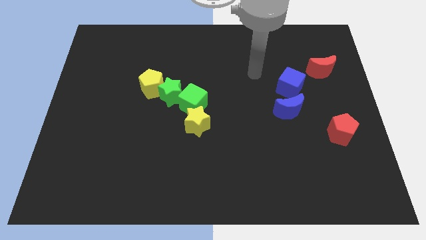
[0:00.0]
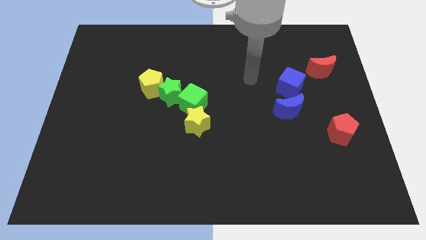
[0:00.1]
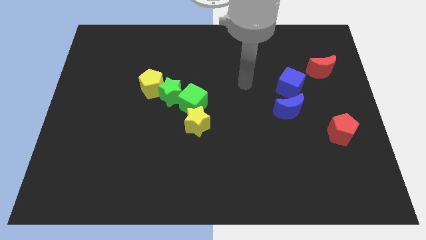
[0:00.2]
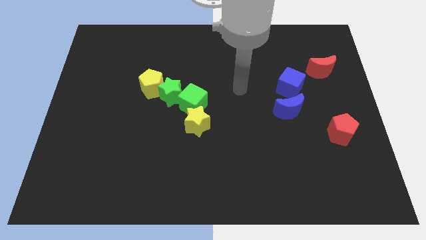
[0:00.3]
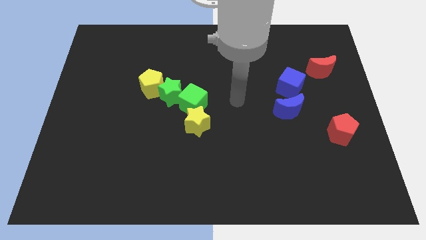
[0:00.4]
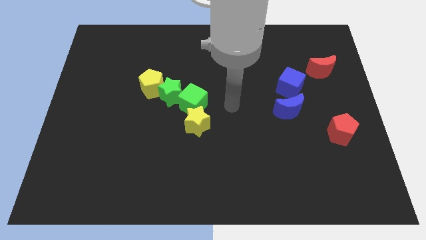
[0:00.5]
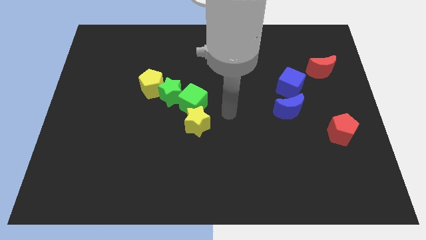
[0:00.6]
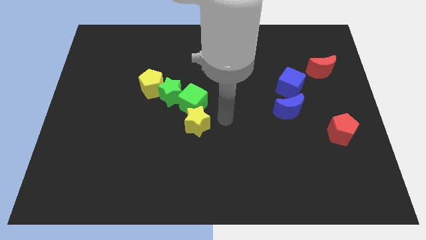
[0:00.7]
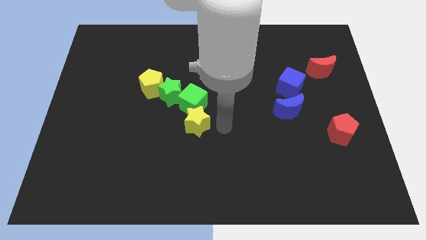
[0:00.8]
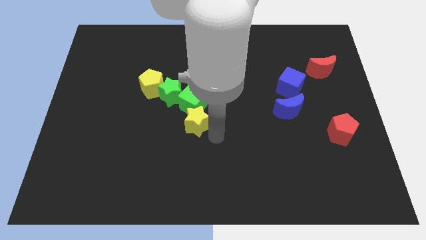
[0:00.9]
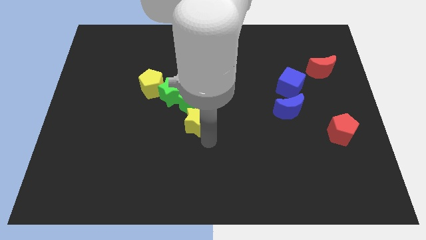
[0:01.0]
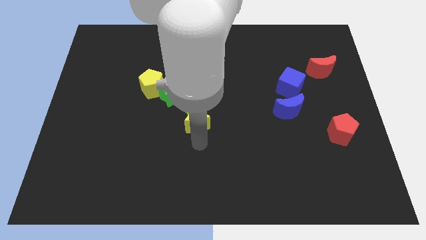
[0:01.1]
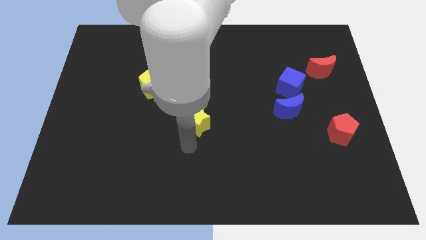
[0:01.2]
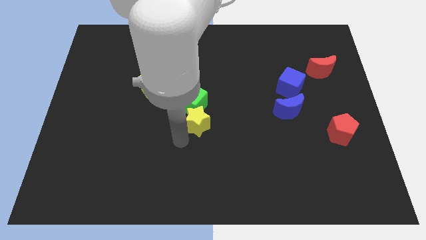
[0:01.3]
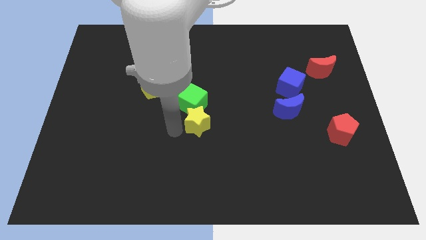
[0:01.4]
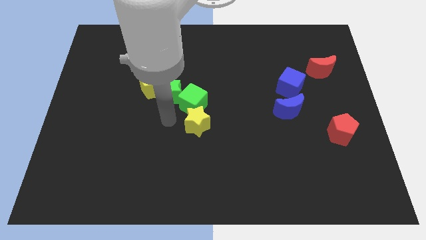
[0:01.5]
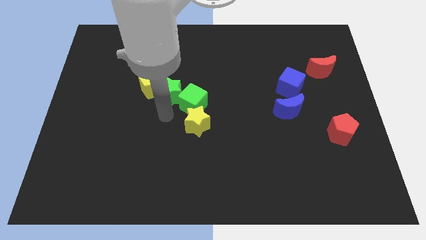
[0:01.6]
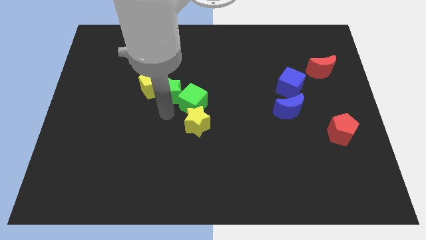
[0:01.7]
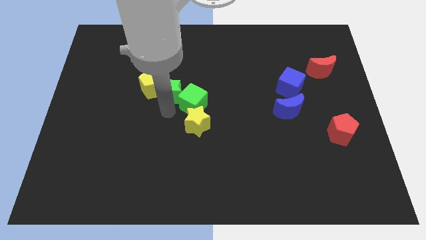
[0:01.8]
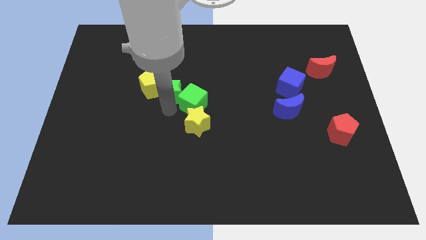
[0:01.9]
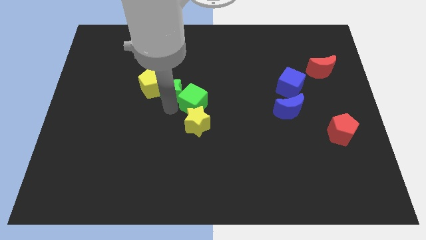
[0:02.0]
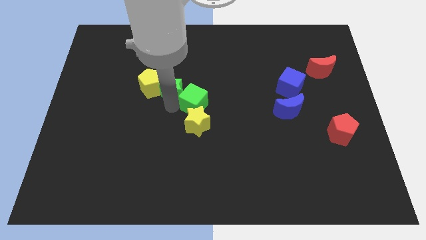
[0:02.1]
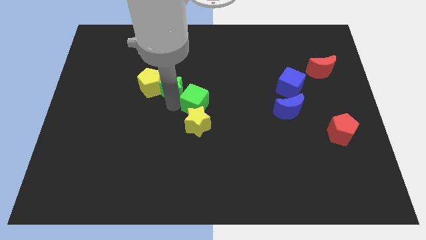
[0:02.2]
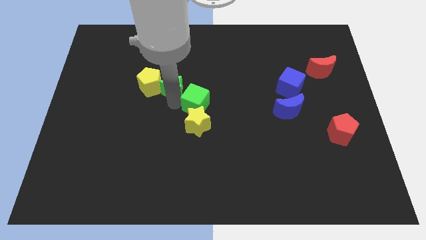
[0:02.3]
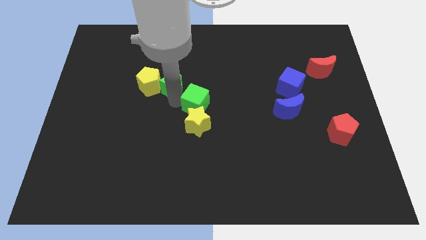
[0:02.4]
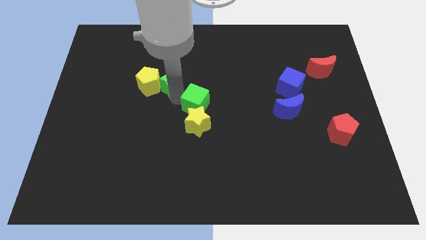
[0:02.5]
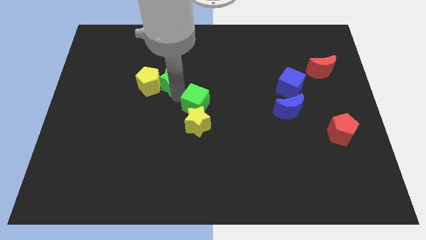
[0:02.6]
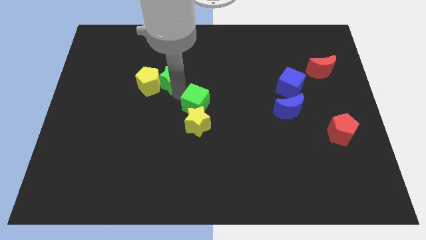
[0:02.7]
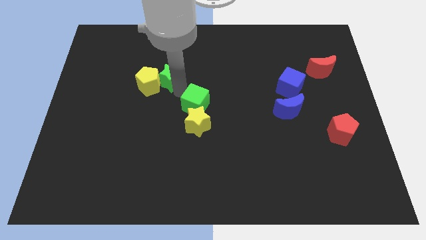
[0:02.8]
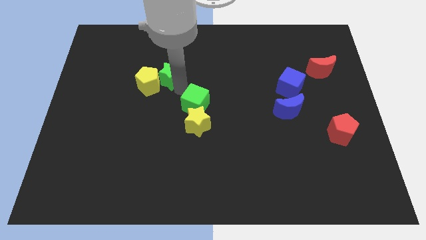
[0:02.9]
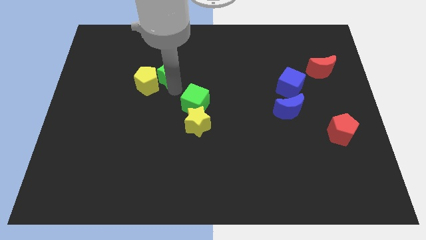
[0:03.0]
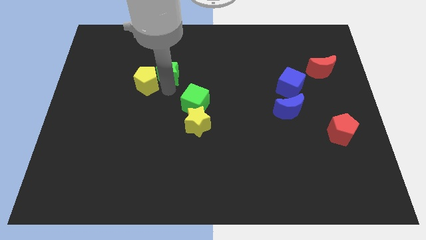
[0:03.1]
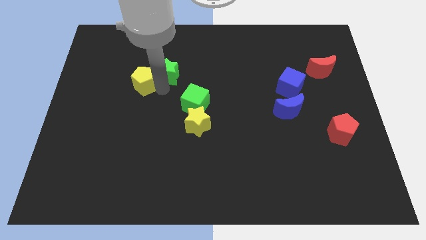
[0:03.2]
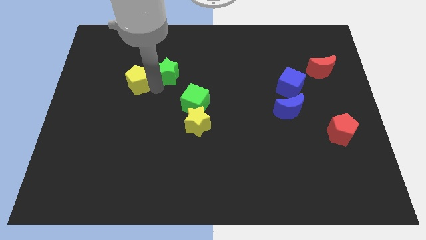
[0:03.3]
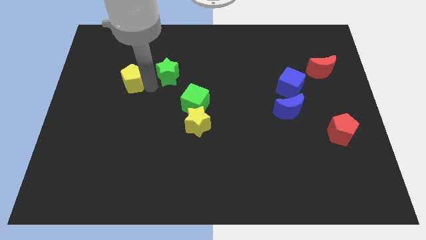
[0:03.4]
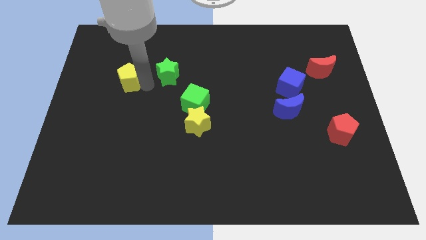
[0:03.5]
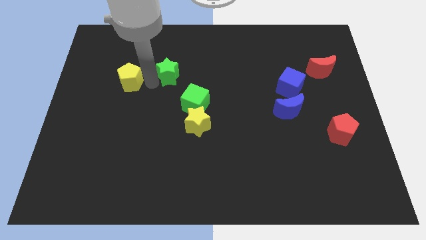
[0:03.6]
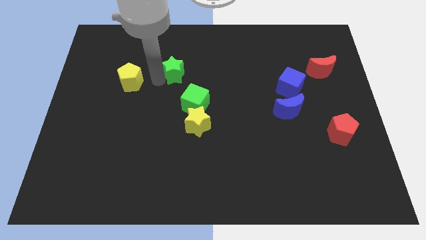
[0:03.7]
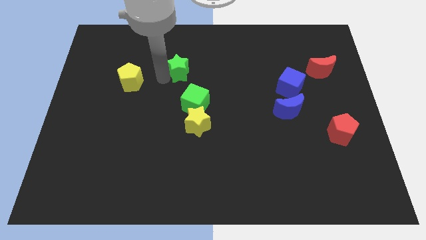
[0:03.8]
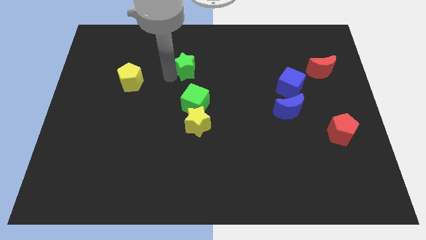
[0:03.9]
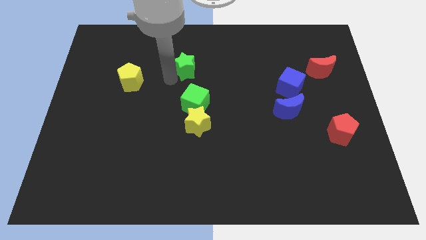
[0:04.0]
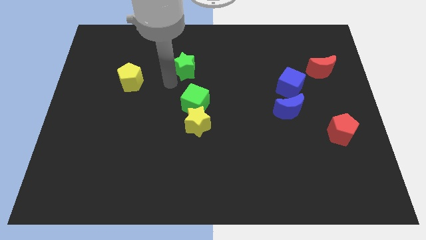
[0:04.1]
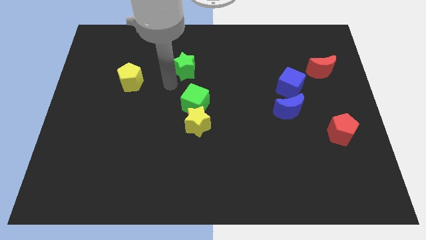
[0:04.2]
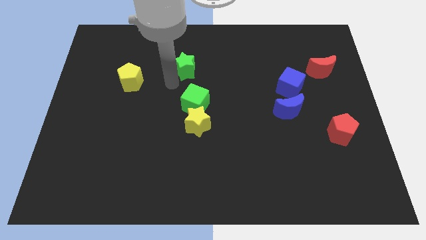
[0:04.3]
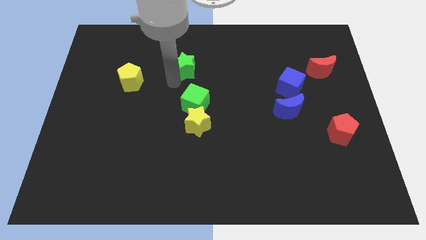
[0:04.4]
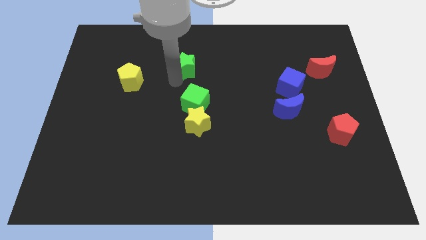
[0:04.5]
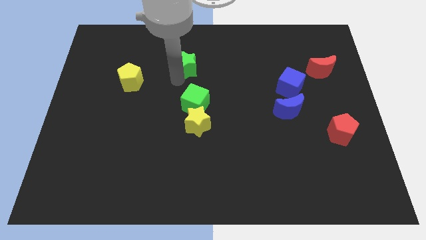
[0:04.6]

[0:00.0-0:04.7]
move the green star away from the green cube and yellow pentagon

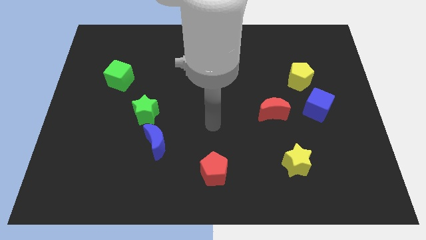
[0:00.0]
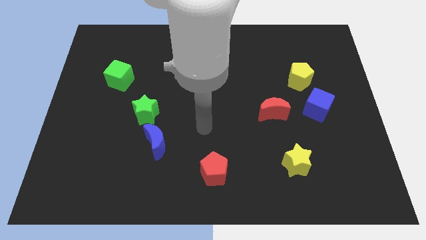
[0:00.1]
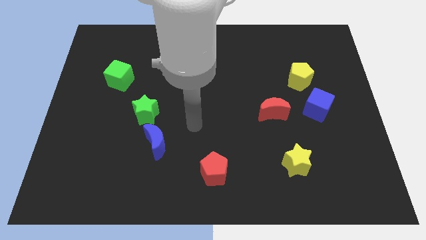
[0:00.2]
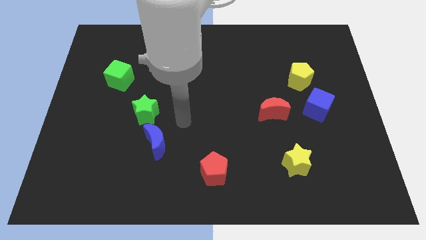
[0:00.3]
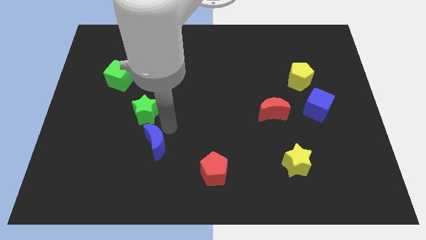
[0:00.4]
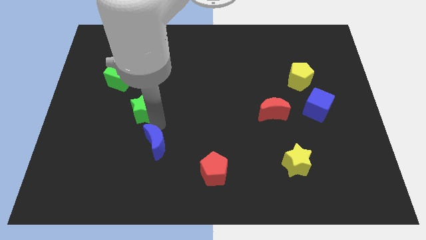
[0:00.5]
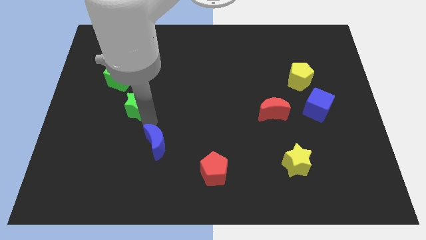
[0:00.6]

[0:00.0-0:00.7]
separate the blue moon from the green star

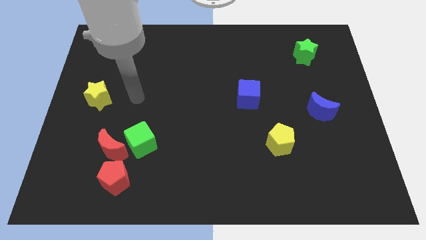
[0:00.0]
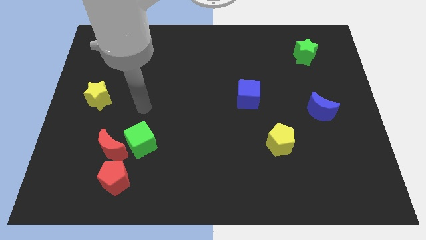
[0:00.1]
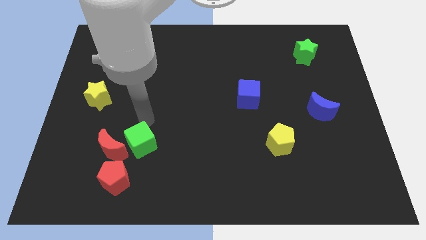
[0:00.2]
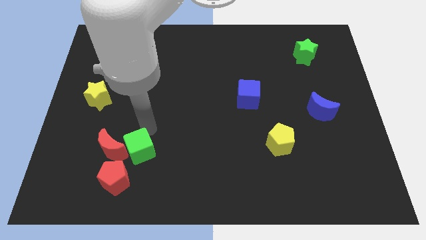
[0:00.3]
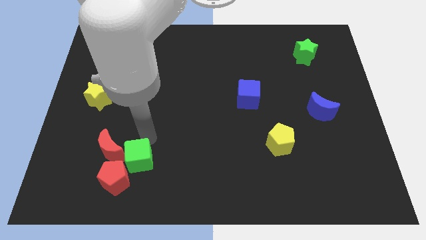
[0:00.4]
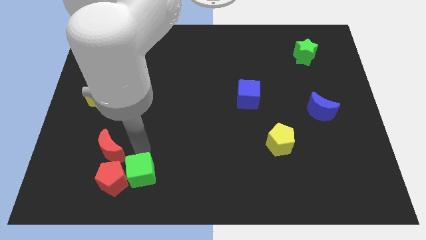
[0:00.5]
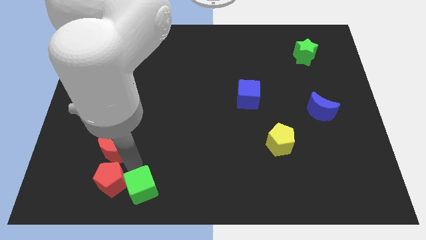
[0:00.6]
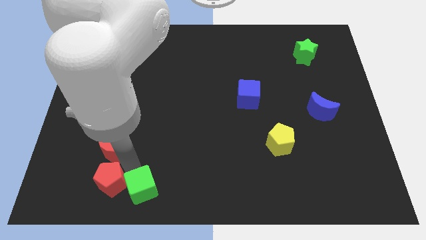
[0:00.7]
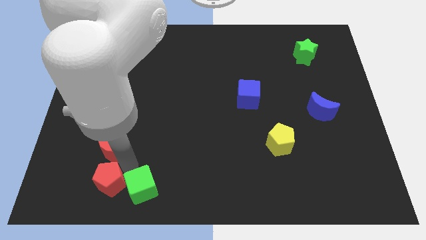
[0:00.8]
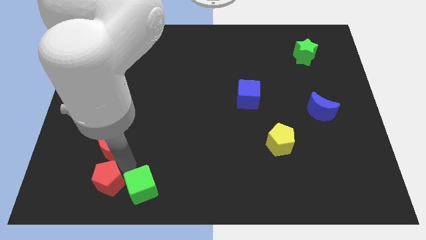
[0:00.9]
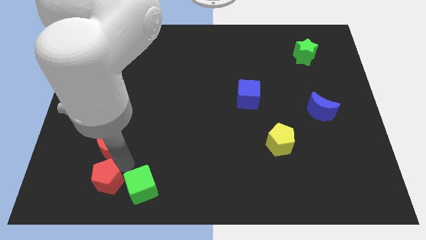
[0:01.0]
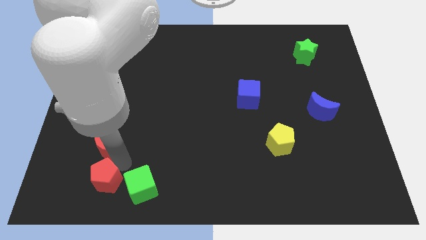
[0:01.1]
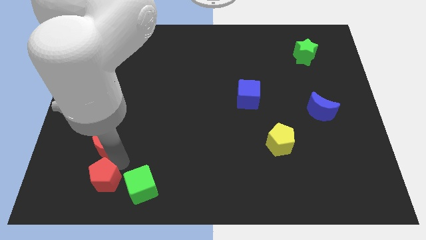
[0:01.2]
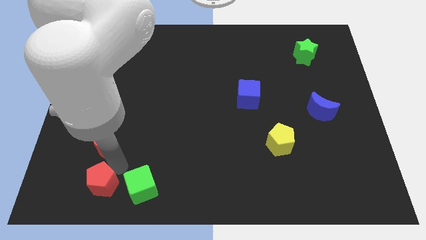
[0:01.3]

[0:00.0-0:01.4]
move the red moon away from the green cube and red pentagon

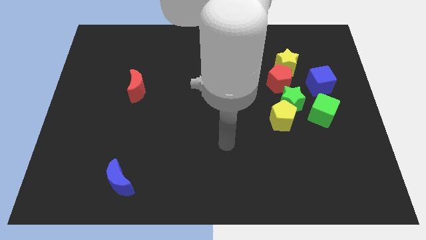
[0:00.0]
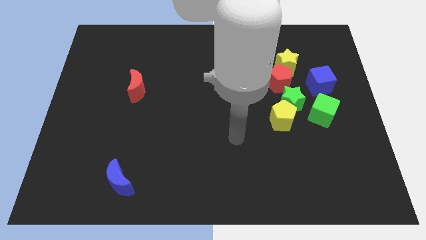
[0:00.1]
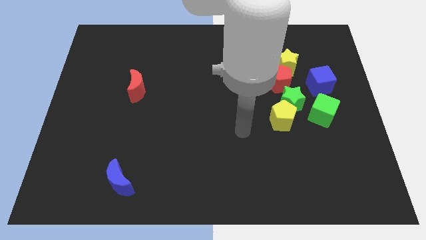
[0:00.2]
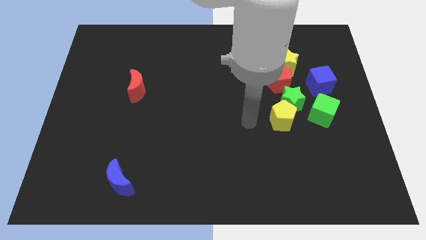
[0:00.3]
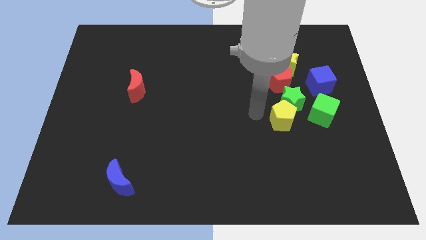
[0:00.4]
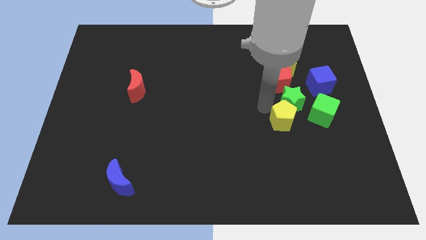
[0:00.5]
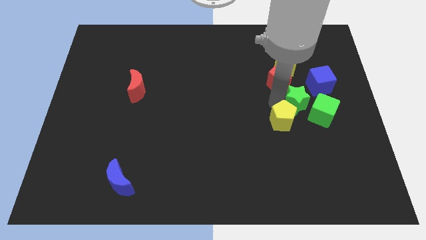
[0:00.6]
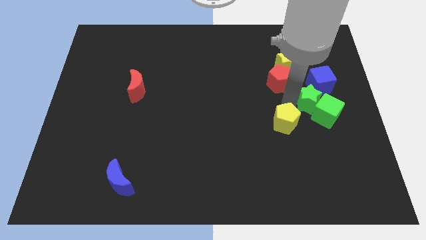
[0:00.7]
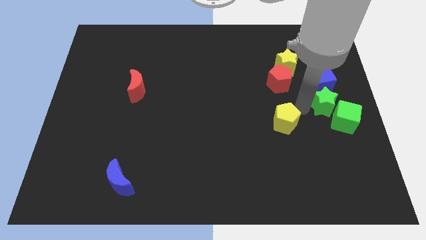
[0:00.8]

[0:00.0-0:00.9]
separate the yellow pentagon from the green star and green cube

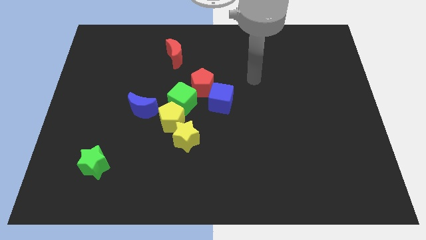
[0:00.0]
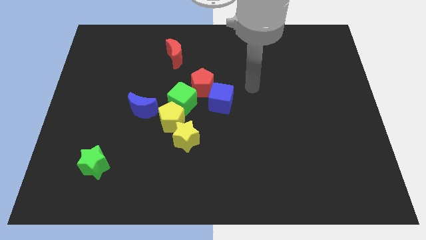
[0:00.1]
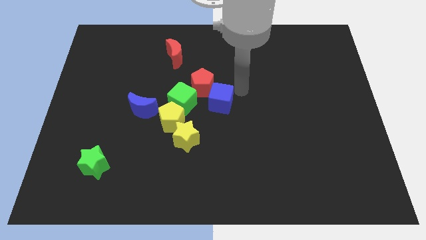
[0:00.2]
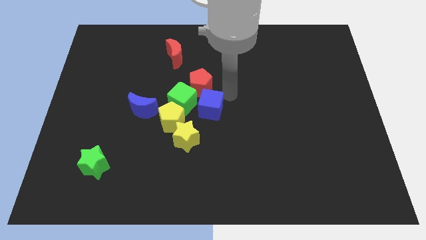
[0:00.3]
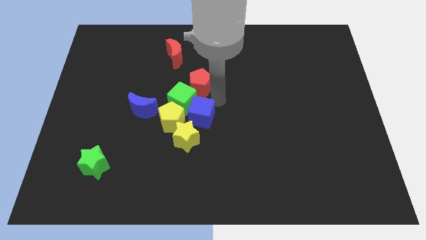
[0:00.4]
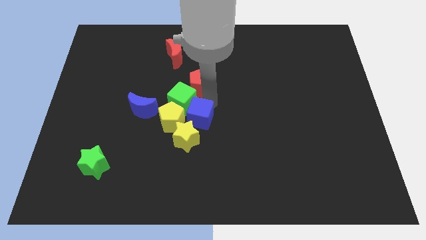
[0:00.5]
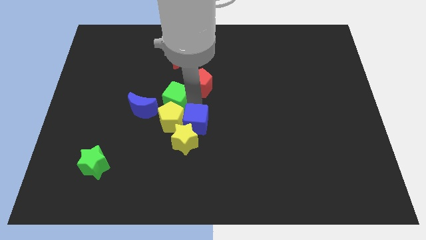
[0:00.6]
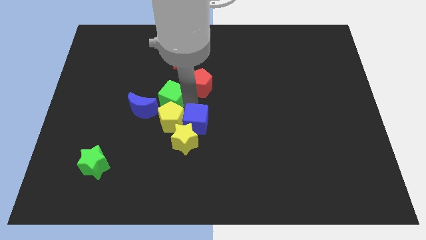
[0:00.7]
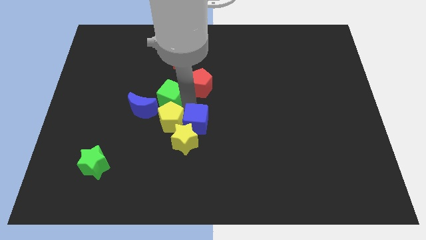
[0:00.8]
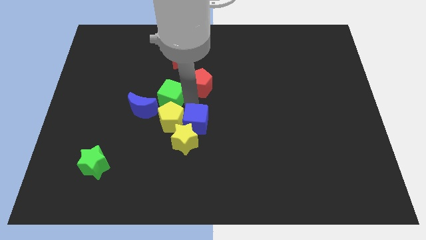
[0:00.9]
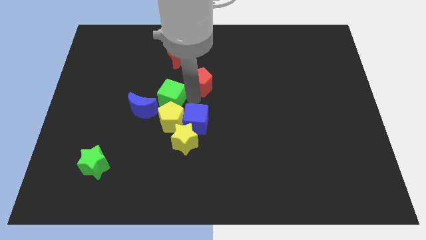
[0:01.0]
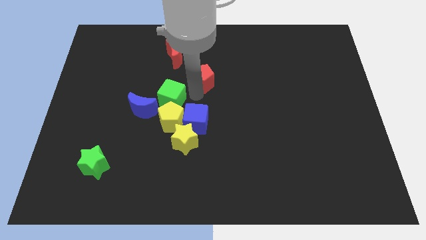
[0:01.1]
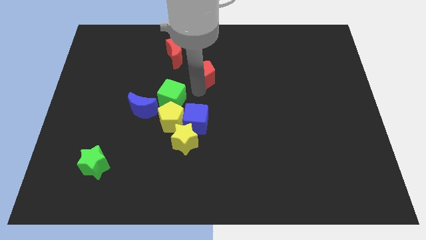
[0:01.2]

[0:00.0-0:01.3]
pull the red pentagon apart from the blue cube and green cube

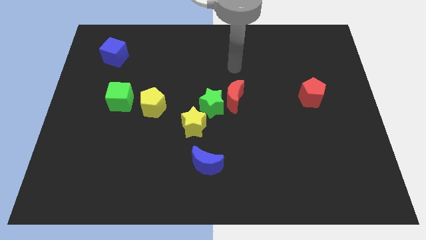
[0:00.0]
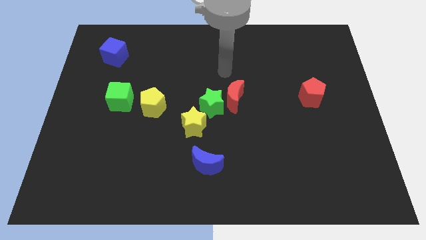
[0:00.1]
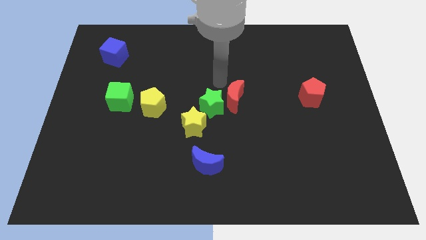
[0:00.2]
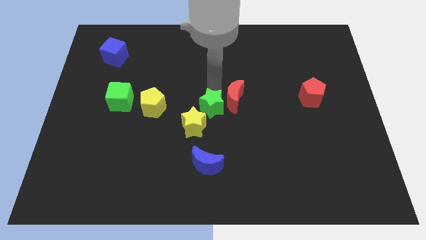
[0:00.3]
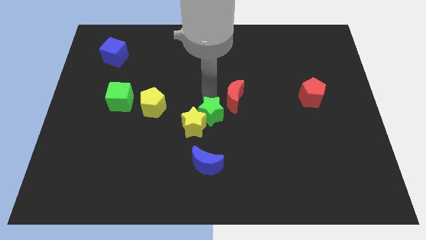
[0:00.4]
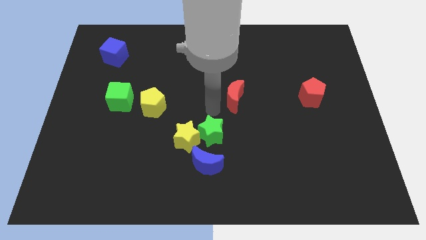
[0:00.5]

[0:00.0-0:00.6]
move the red moon away from the green star
